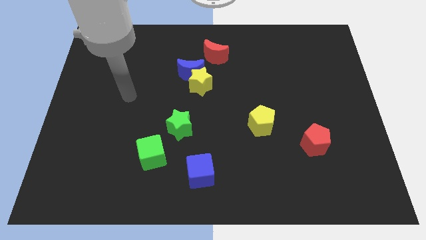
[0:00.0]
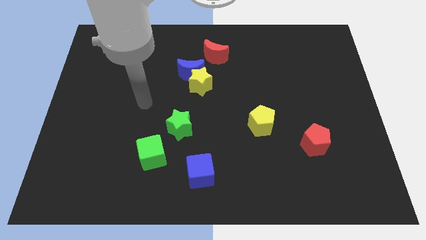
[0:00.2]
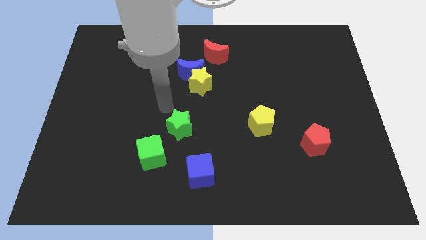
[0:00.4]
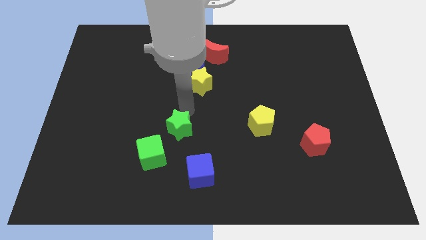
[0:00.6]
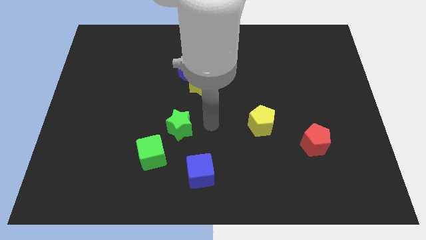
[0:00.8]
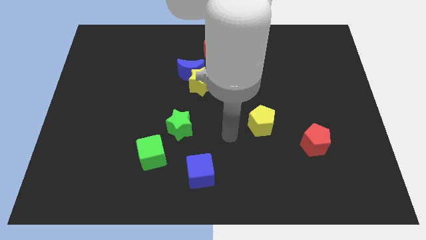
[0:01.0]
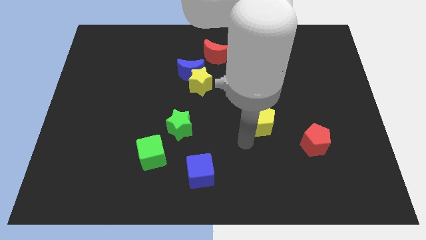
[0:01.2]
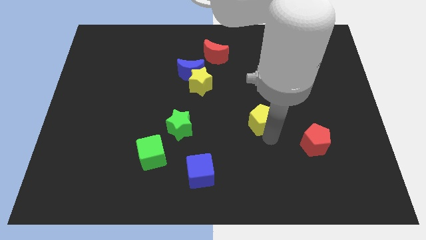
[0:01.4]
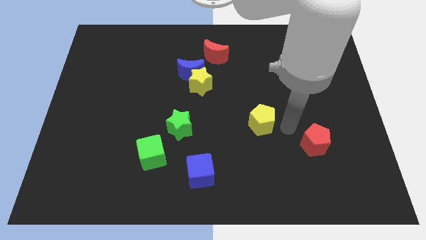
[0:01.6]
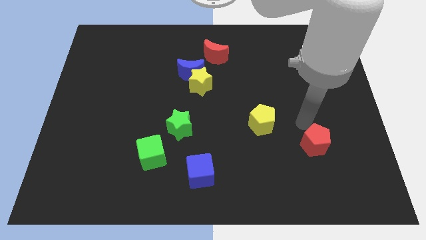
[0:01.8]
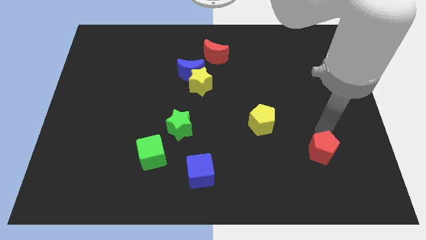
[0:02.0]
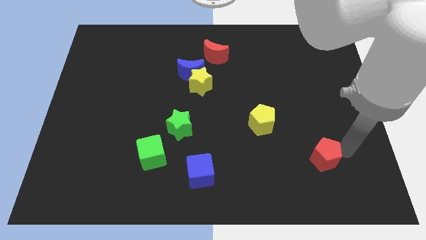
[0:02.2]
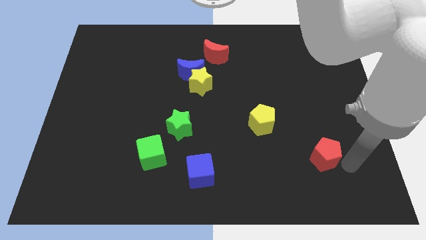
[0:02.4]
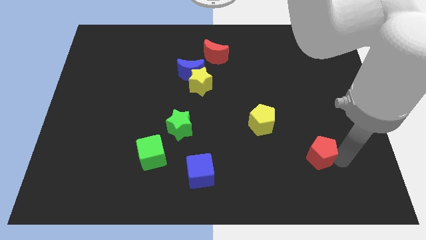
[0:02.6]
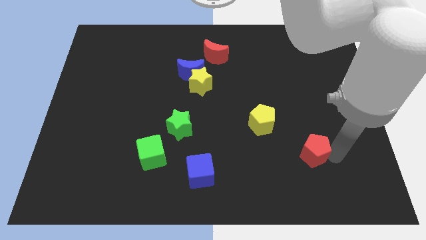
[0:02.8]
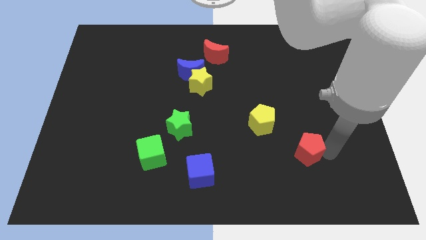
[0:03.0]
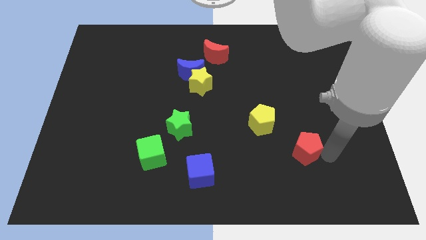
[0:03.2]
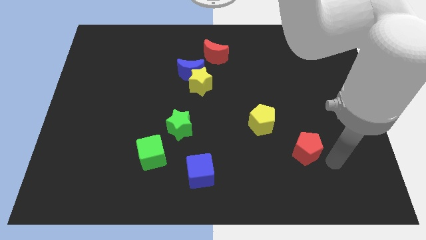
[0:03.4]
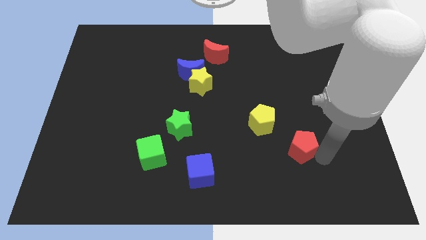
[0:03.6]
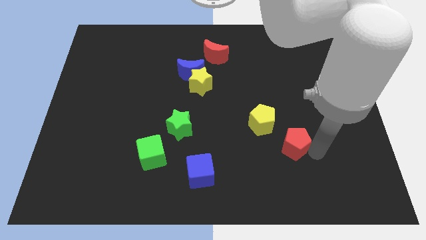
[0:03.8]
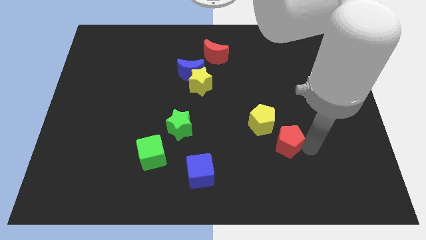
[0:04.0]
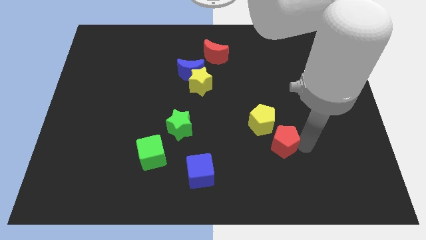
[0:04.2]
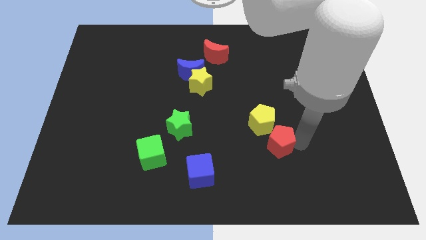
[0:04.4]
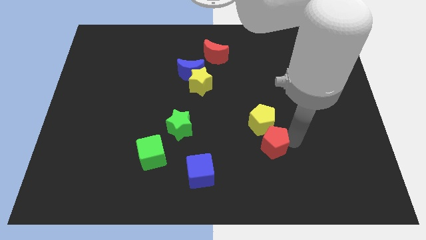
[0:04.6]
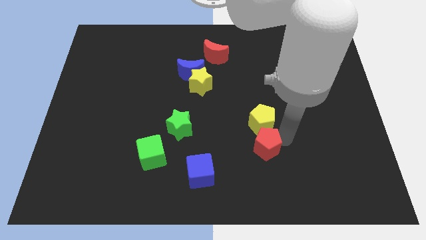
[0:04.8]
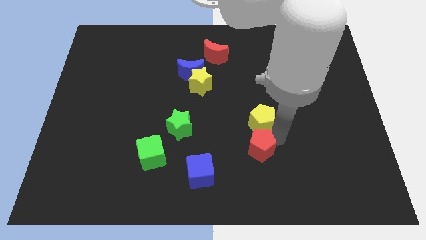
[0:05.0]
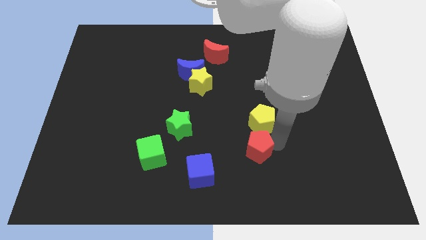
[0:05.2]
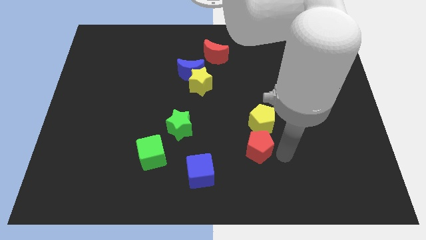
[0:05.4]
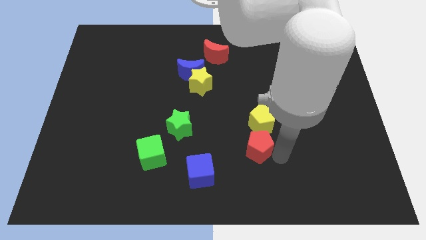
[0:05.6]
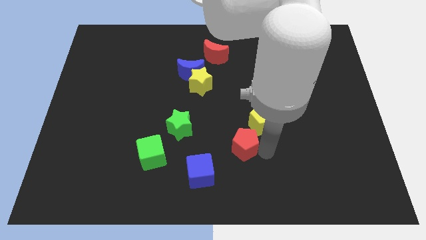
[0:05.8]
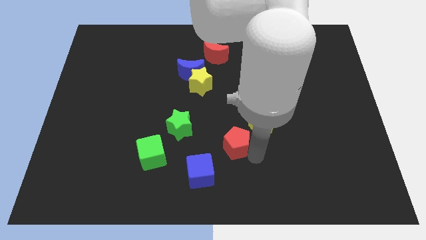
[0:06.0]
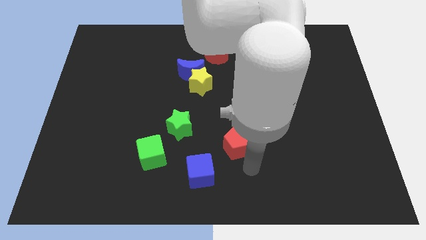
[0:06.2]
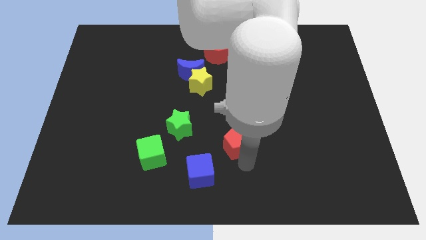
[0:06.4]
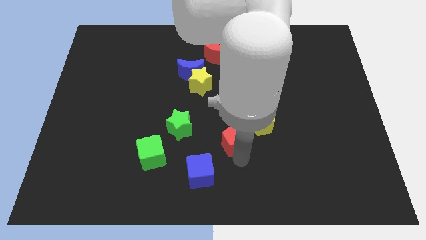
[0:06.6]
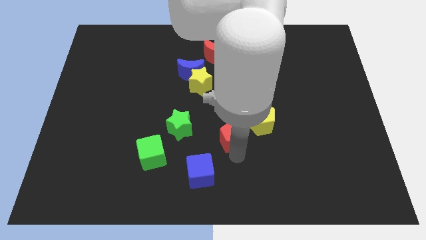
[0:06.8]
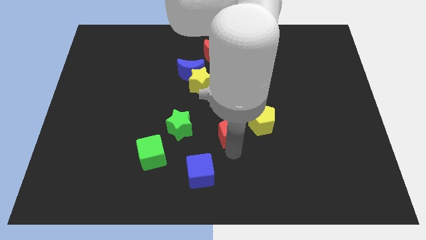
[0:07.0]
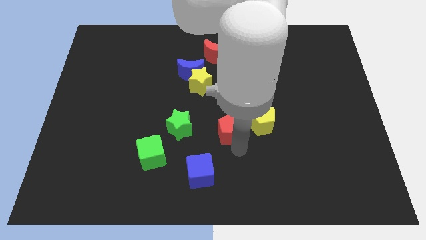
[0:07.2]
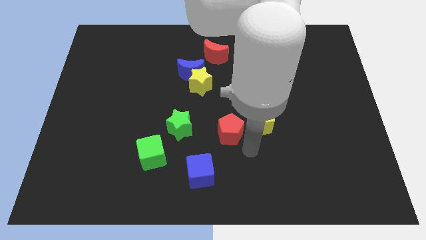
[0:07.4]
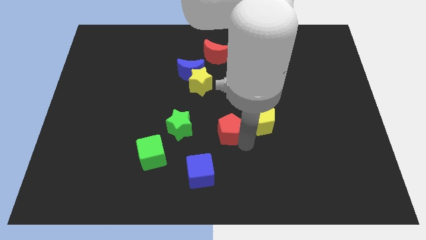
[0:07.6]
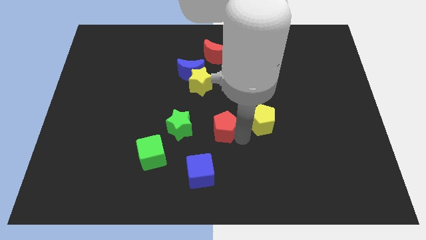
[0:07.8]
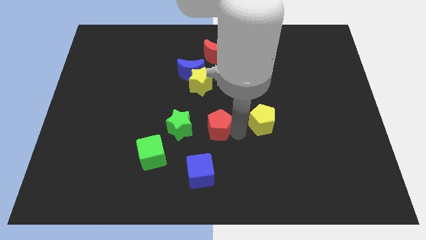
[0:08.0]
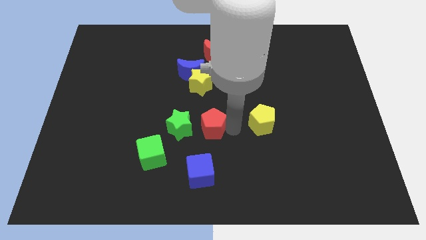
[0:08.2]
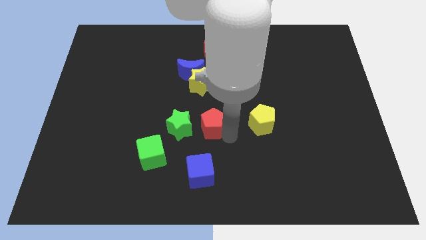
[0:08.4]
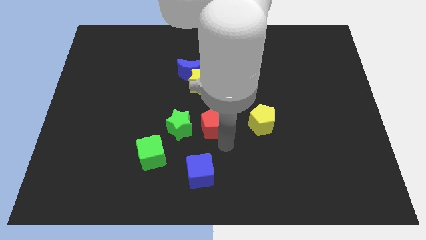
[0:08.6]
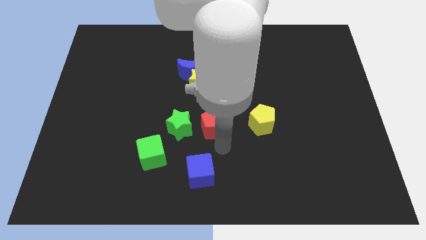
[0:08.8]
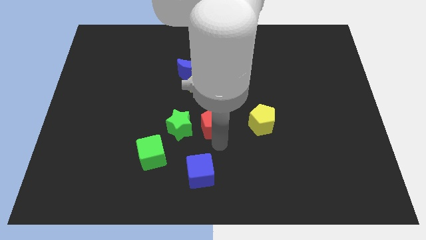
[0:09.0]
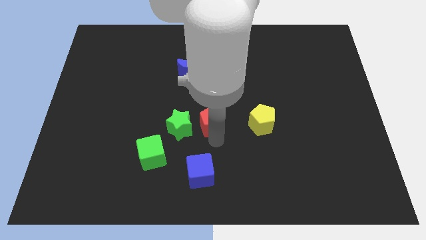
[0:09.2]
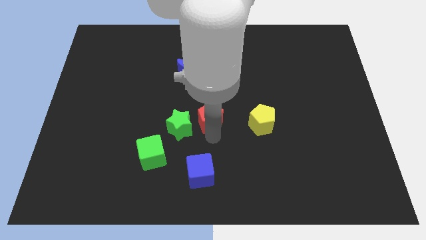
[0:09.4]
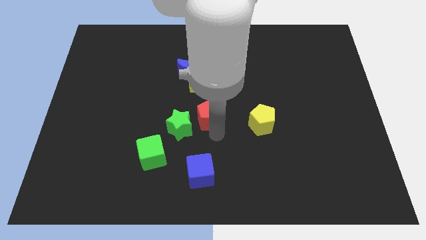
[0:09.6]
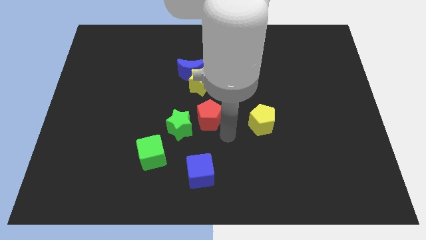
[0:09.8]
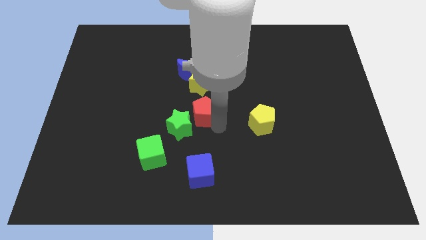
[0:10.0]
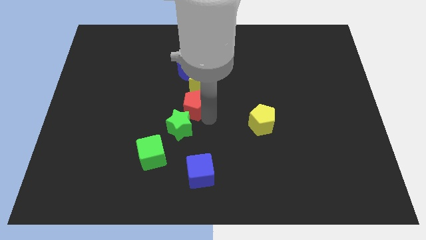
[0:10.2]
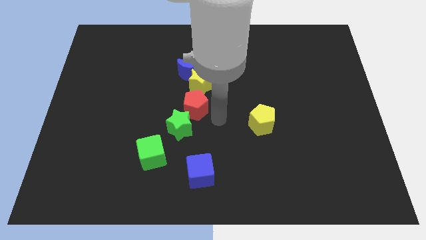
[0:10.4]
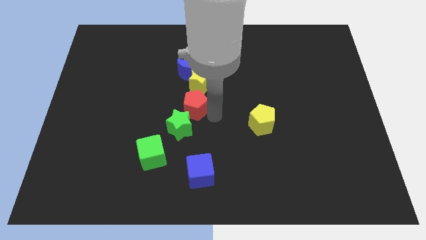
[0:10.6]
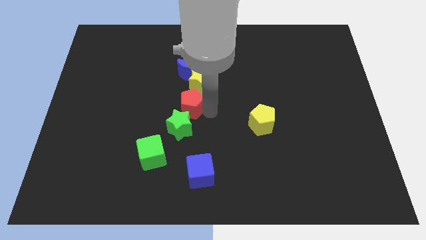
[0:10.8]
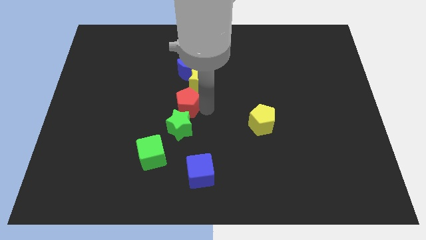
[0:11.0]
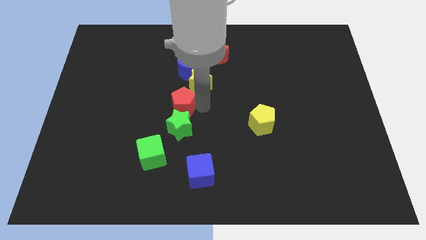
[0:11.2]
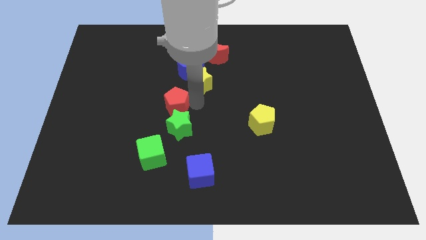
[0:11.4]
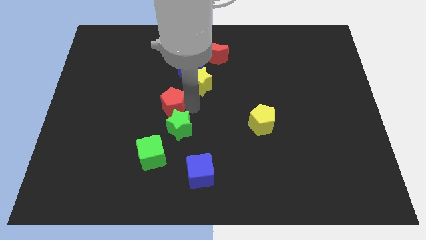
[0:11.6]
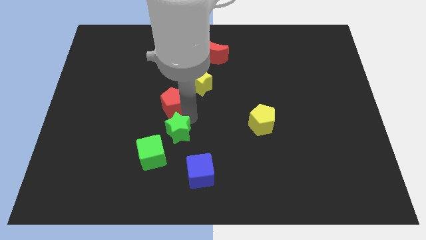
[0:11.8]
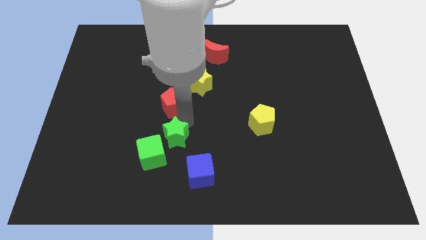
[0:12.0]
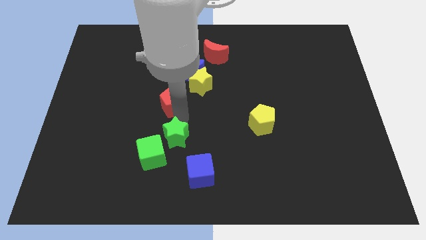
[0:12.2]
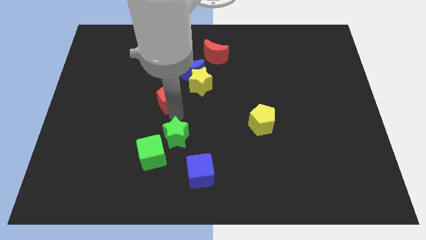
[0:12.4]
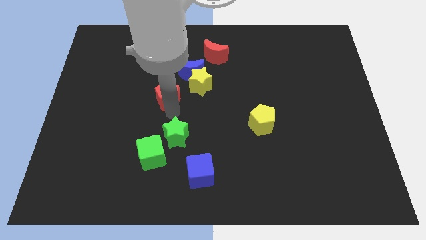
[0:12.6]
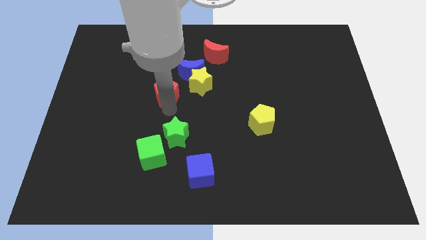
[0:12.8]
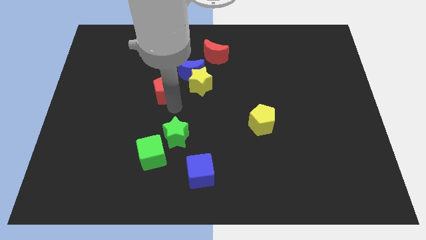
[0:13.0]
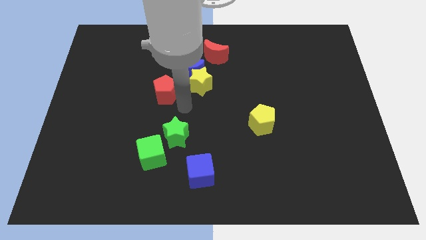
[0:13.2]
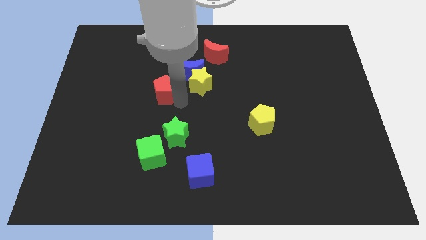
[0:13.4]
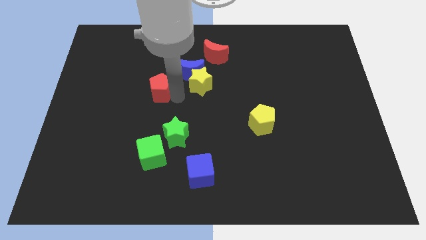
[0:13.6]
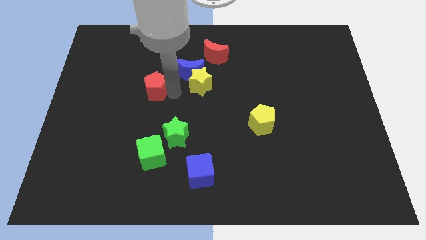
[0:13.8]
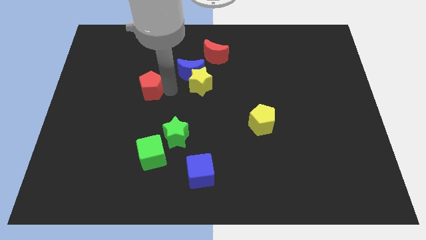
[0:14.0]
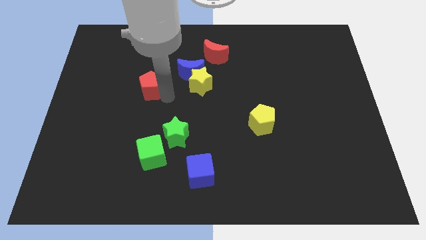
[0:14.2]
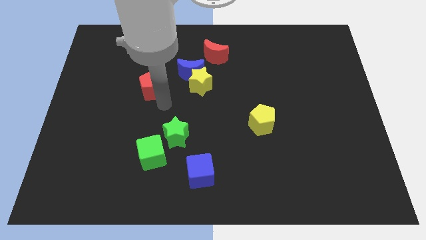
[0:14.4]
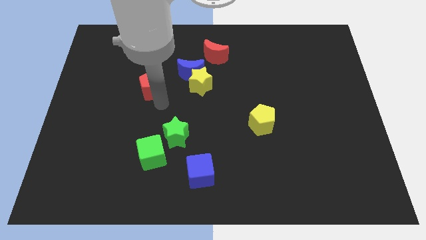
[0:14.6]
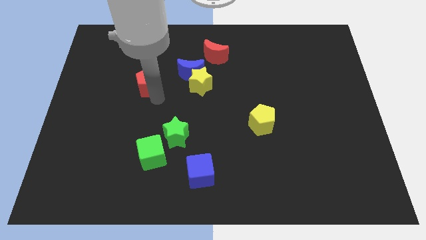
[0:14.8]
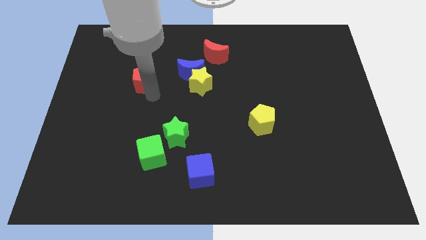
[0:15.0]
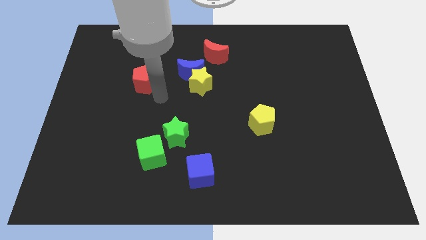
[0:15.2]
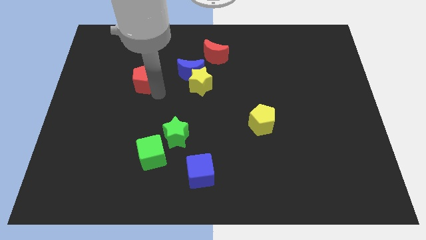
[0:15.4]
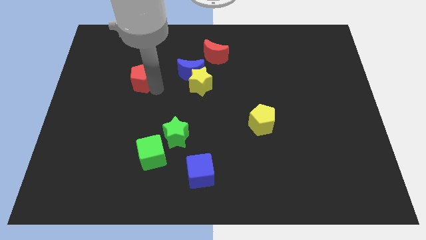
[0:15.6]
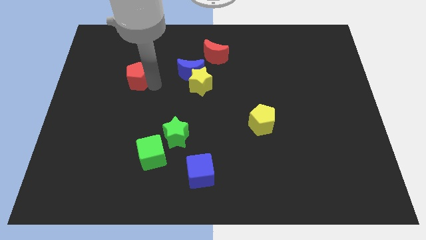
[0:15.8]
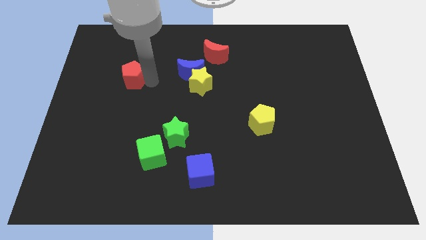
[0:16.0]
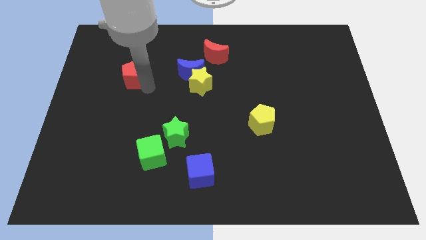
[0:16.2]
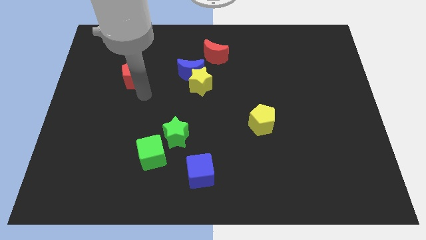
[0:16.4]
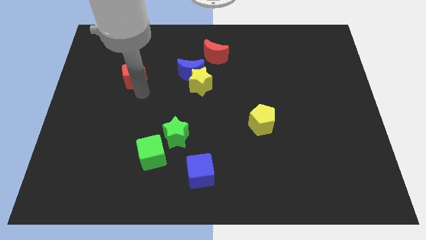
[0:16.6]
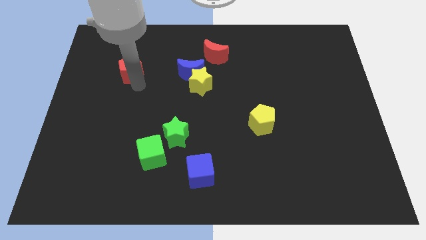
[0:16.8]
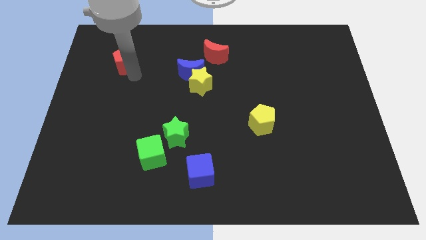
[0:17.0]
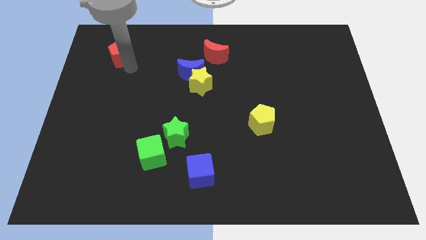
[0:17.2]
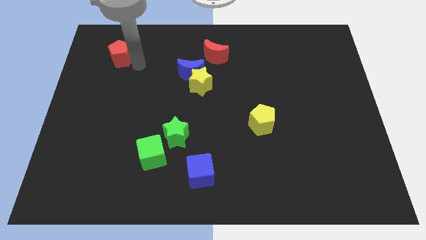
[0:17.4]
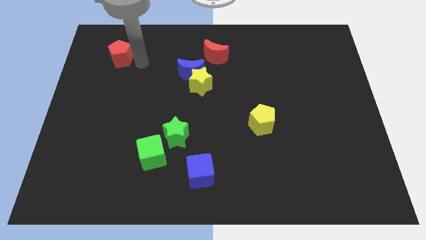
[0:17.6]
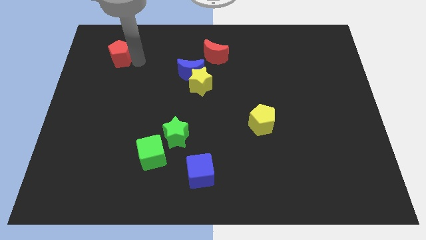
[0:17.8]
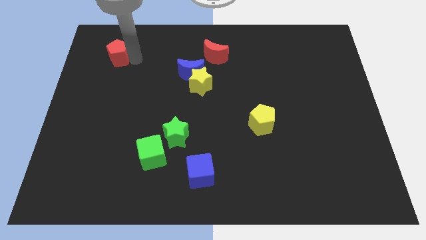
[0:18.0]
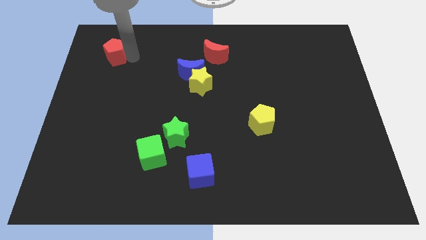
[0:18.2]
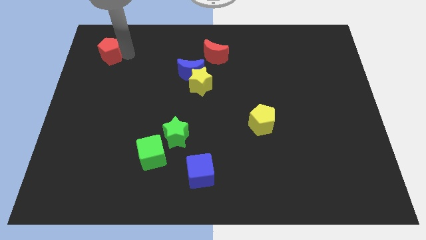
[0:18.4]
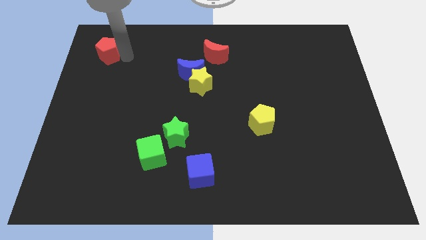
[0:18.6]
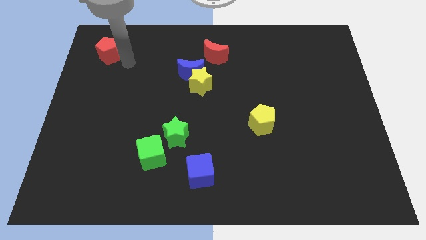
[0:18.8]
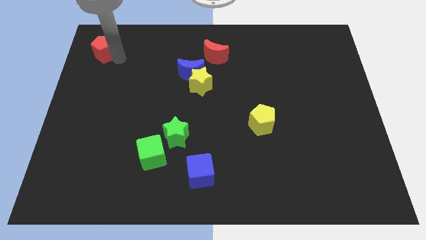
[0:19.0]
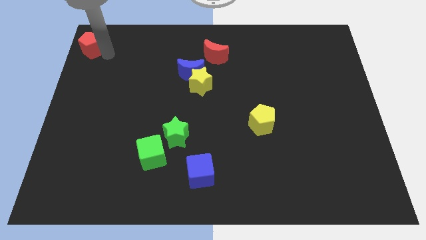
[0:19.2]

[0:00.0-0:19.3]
push the red pentagon to the top left of the board
